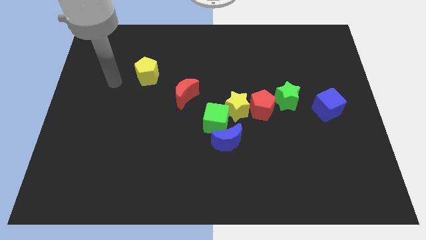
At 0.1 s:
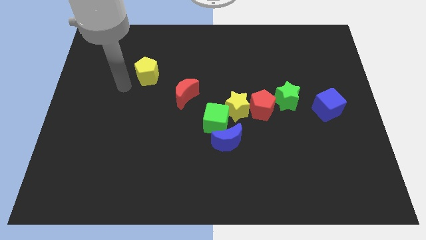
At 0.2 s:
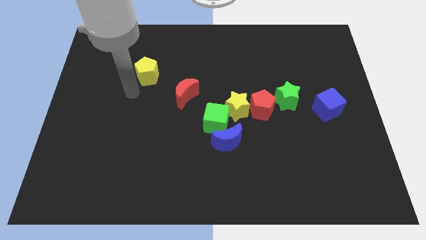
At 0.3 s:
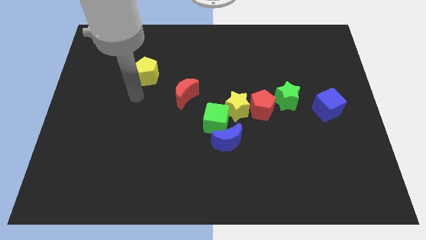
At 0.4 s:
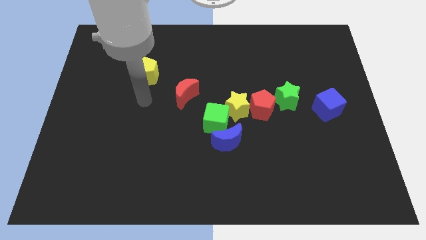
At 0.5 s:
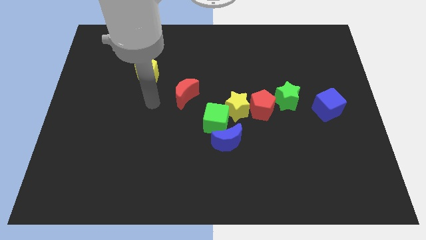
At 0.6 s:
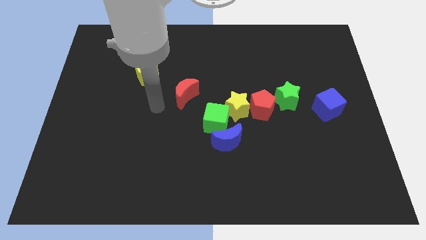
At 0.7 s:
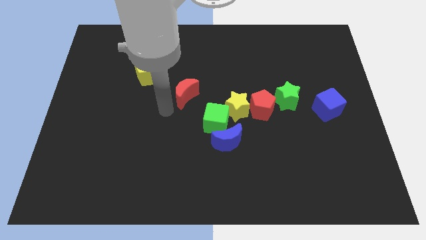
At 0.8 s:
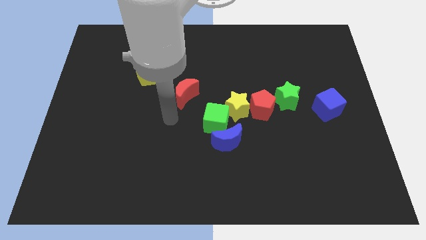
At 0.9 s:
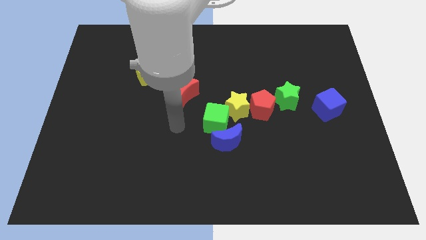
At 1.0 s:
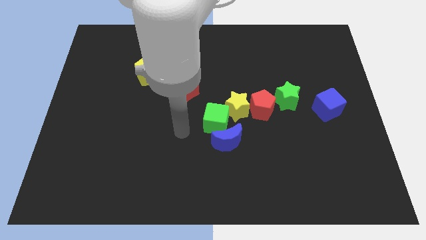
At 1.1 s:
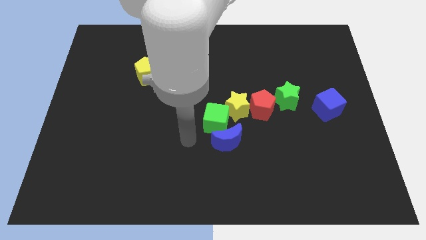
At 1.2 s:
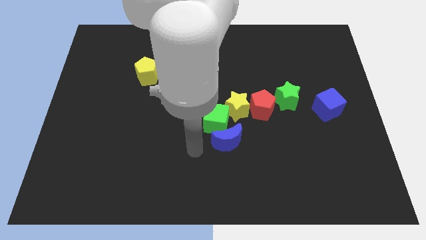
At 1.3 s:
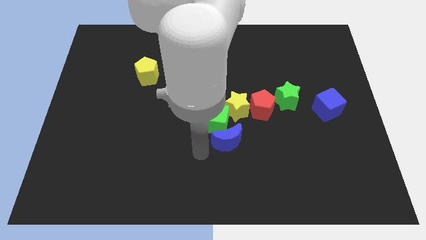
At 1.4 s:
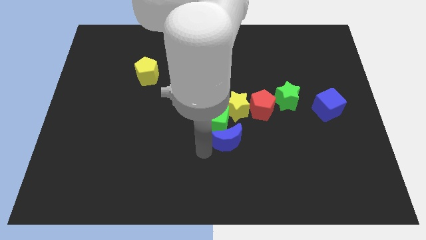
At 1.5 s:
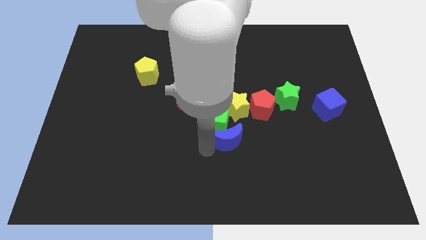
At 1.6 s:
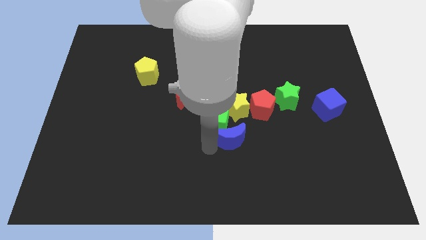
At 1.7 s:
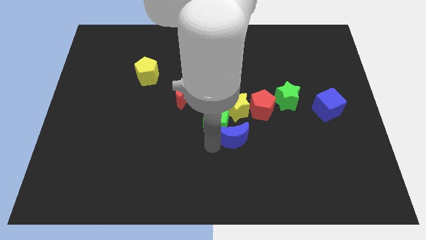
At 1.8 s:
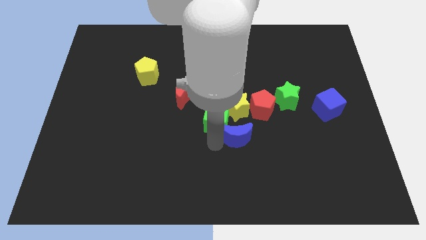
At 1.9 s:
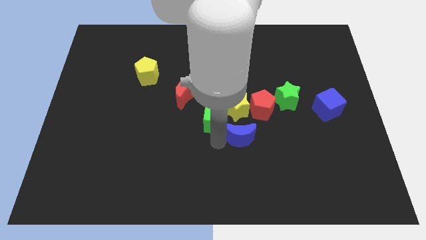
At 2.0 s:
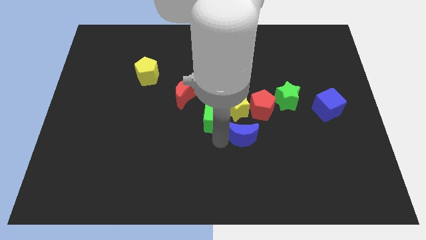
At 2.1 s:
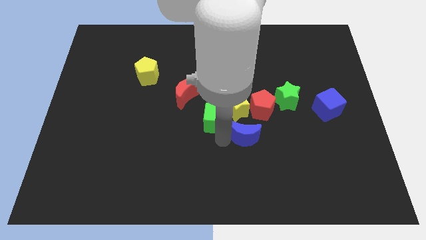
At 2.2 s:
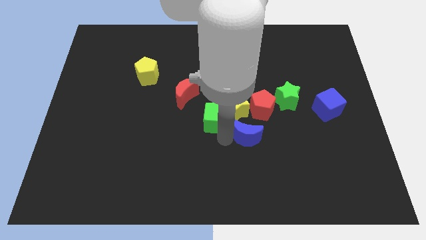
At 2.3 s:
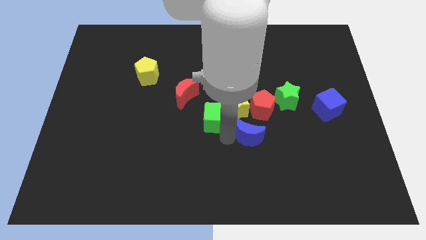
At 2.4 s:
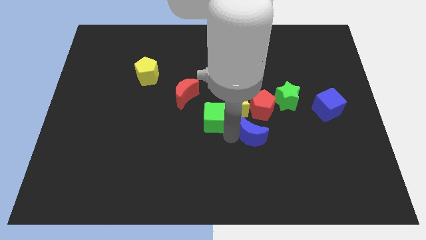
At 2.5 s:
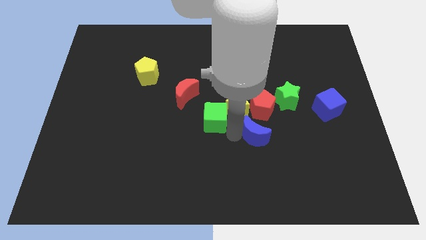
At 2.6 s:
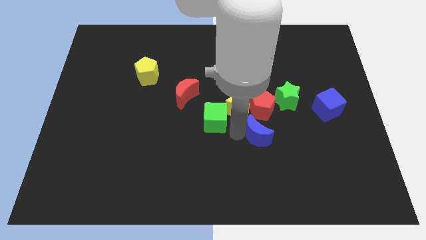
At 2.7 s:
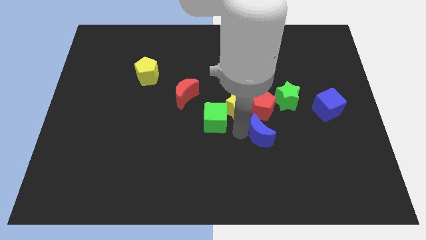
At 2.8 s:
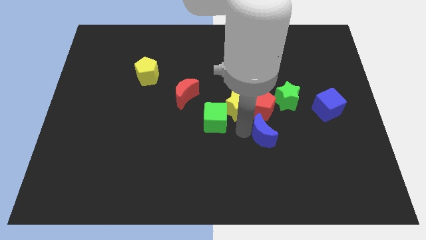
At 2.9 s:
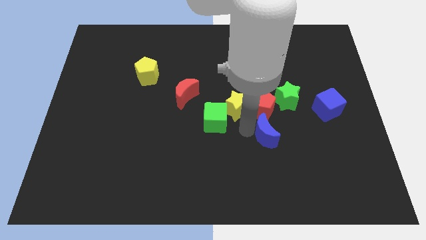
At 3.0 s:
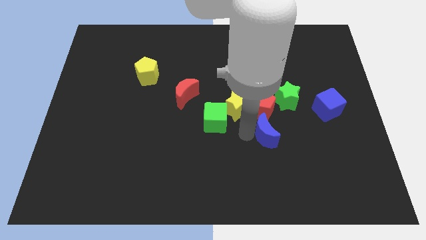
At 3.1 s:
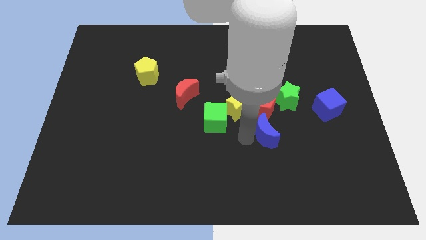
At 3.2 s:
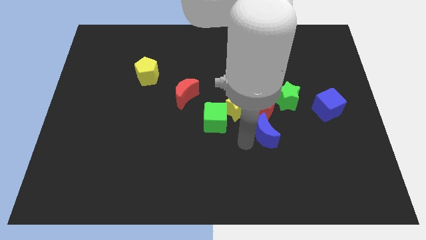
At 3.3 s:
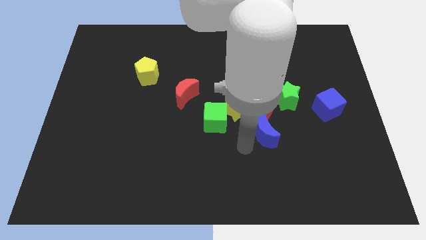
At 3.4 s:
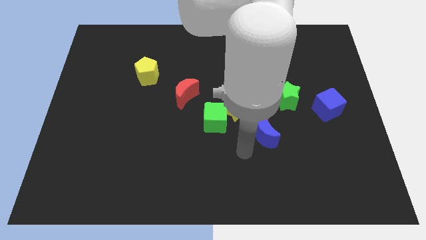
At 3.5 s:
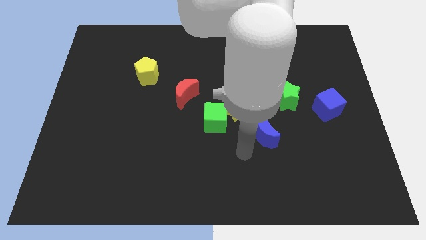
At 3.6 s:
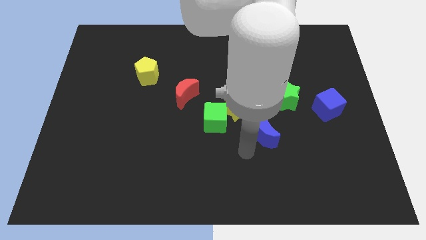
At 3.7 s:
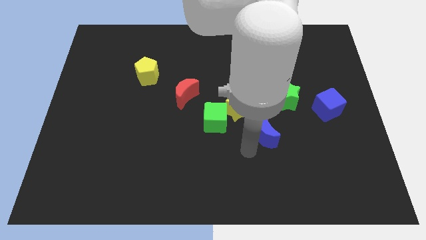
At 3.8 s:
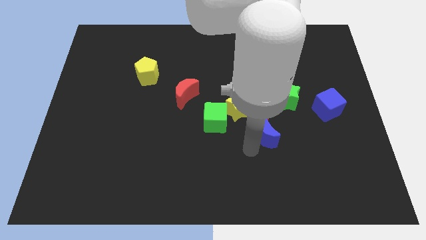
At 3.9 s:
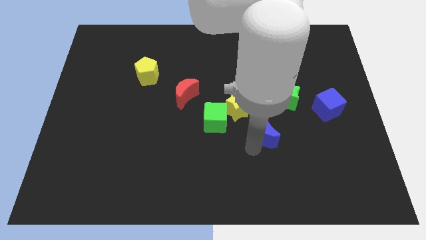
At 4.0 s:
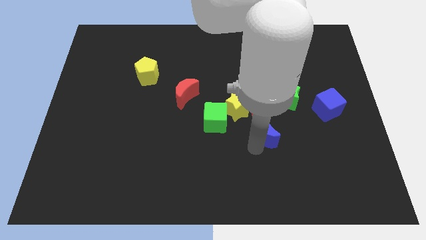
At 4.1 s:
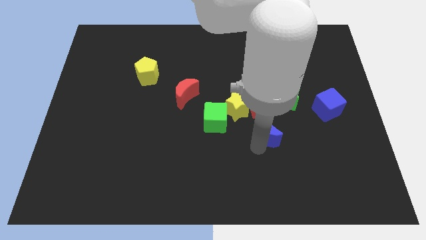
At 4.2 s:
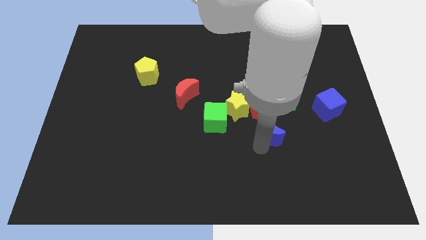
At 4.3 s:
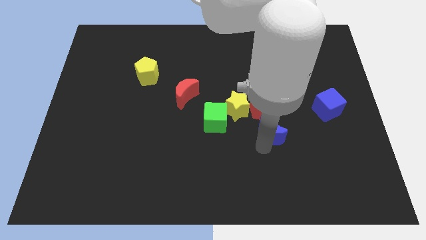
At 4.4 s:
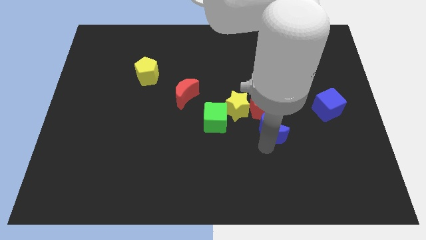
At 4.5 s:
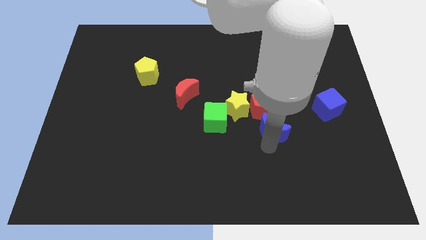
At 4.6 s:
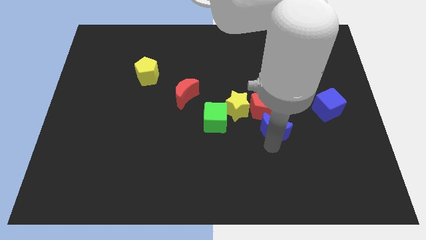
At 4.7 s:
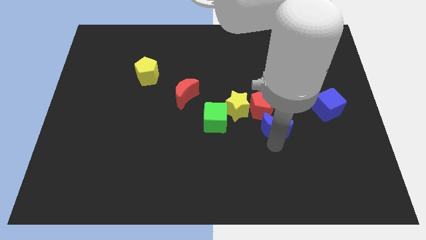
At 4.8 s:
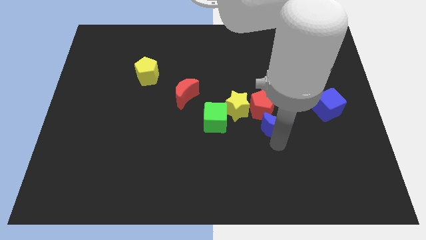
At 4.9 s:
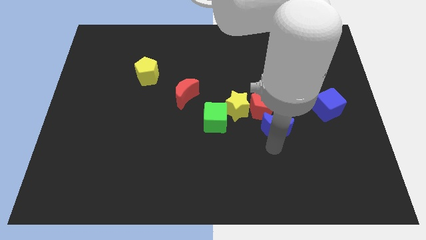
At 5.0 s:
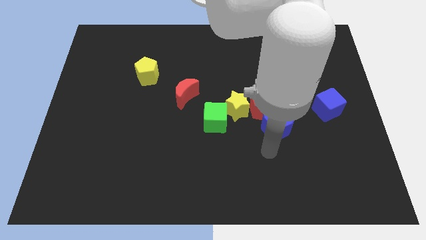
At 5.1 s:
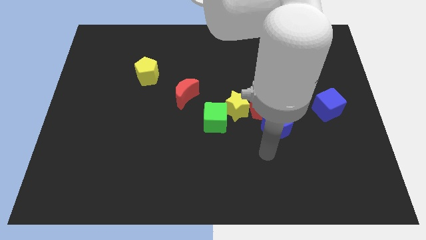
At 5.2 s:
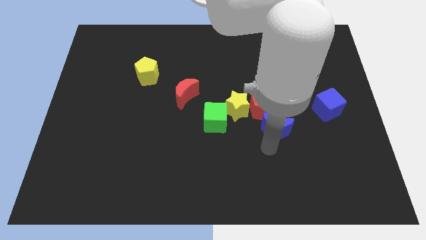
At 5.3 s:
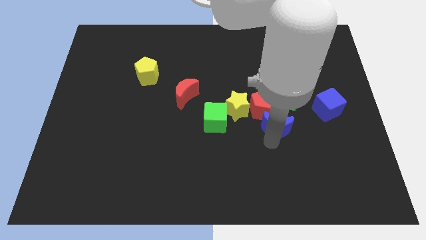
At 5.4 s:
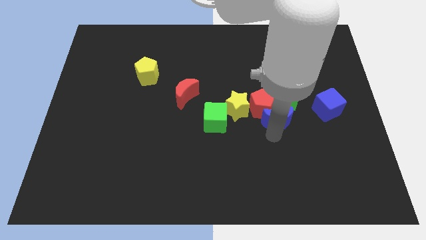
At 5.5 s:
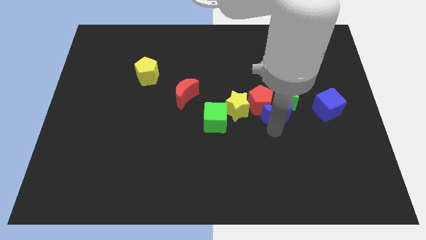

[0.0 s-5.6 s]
slide the blue moon next to the green star
